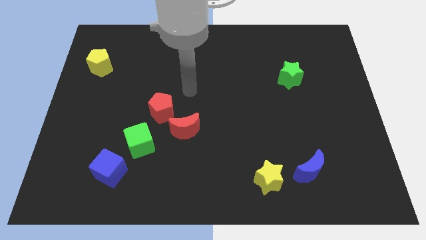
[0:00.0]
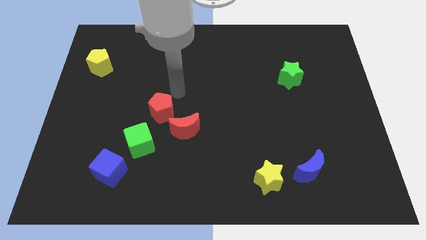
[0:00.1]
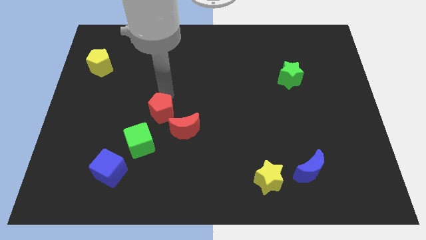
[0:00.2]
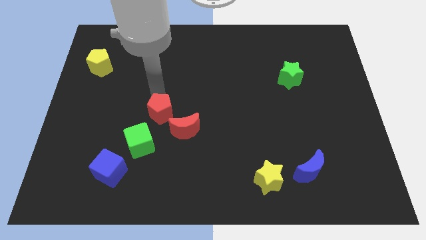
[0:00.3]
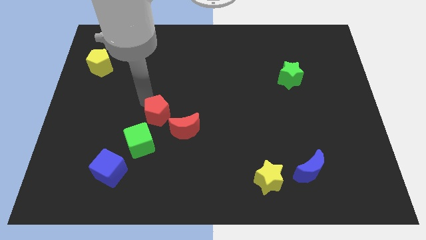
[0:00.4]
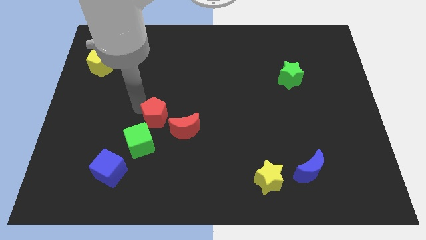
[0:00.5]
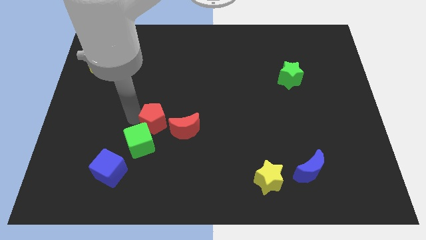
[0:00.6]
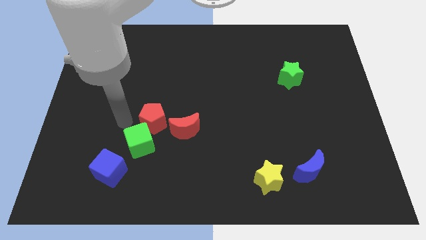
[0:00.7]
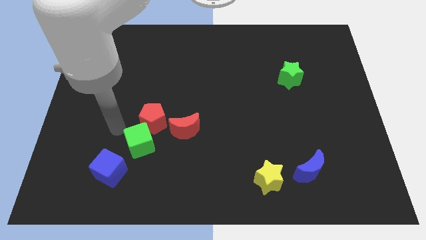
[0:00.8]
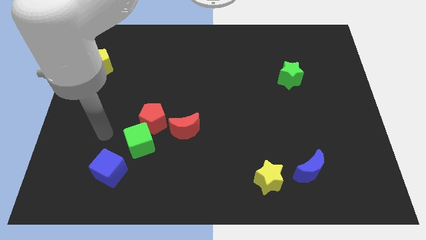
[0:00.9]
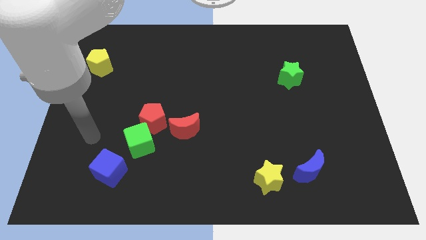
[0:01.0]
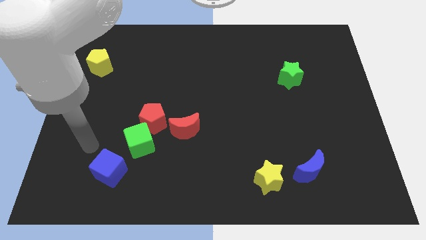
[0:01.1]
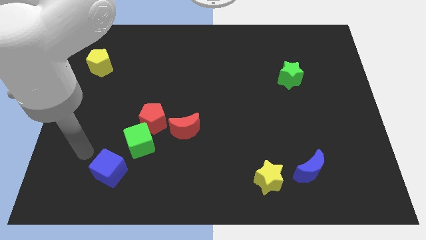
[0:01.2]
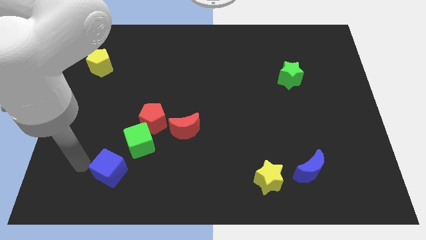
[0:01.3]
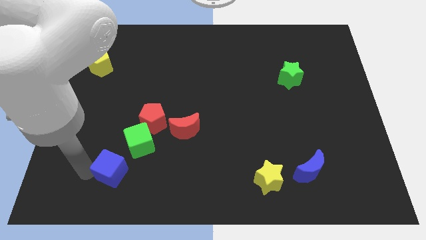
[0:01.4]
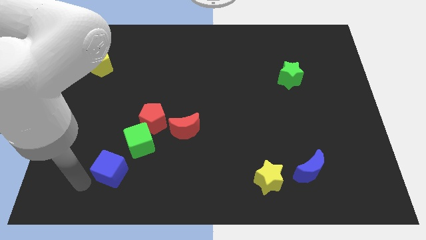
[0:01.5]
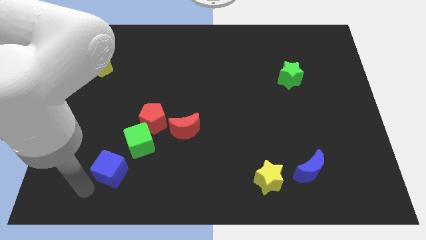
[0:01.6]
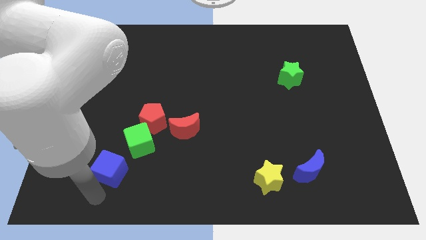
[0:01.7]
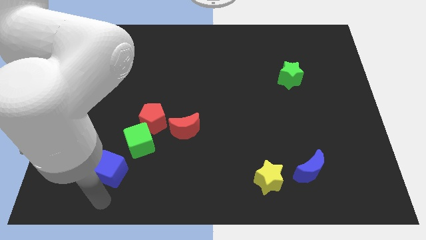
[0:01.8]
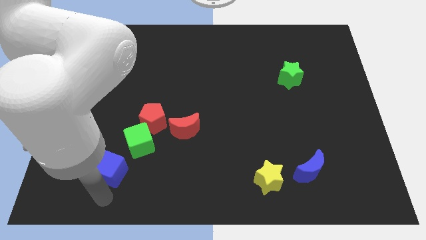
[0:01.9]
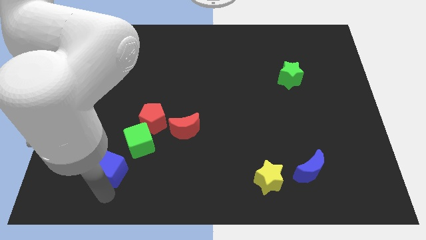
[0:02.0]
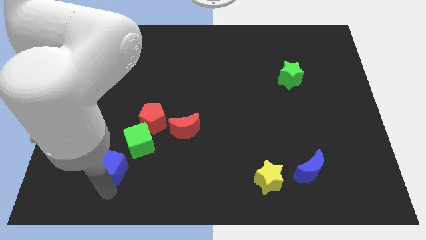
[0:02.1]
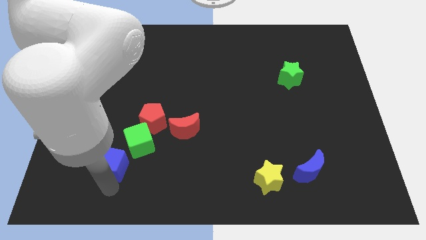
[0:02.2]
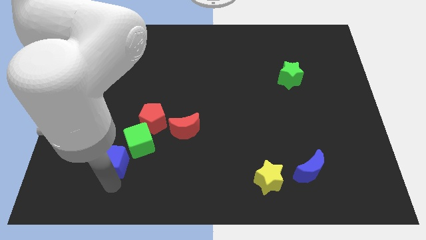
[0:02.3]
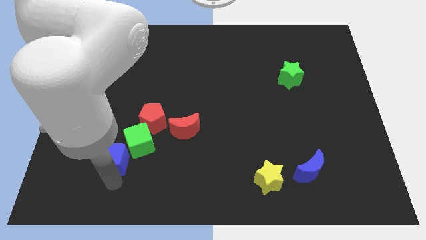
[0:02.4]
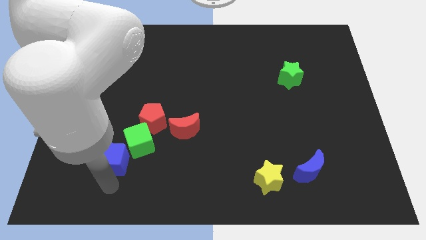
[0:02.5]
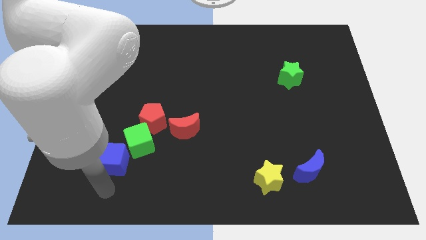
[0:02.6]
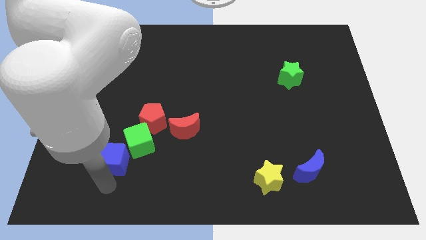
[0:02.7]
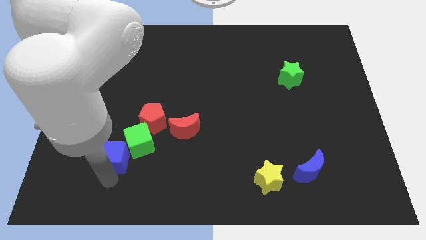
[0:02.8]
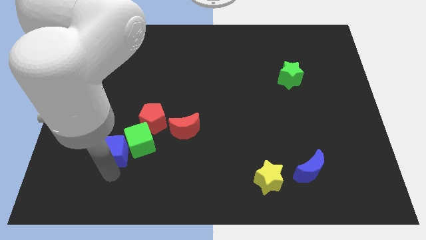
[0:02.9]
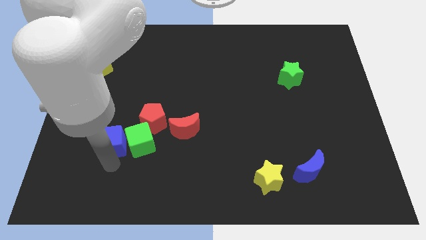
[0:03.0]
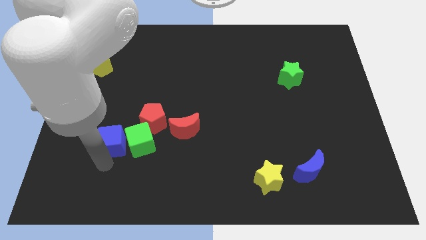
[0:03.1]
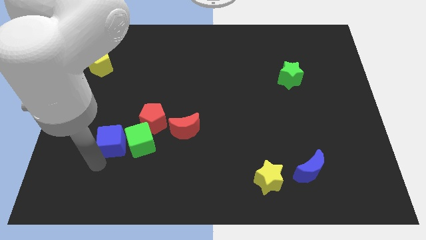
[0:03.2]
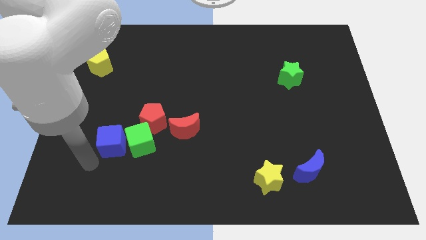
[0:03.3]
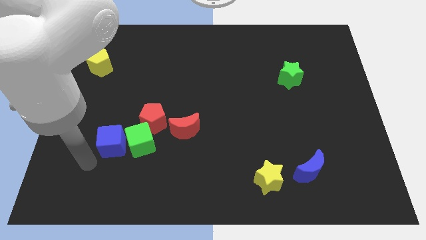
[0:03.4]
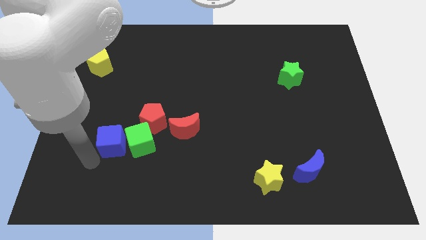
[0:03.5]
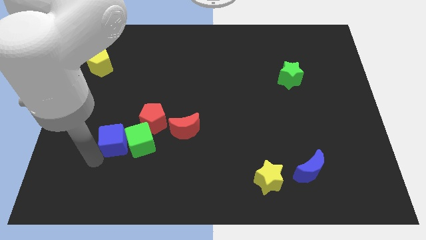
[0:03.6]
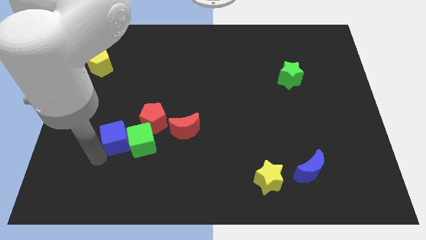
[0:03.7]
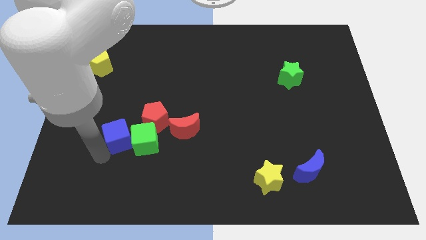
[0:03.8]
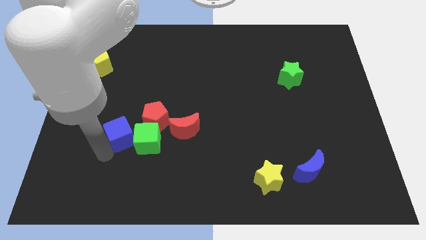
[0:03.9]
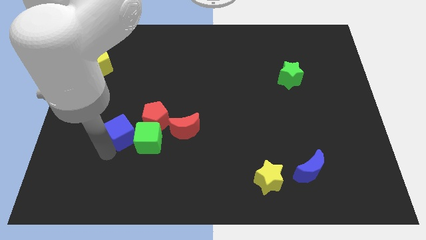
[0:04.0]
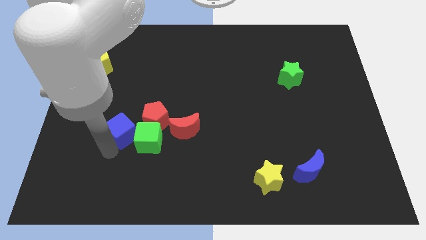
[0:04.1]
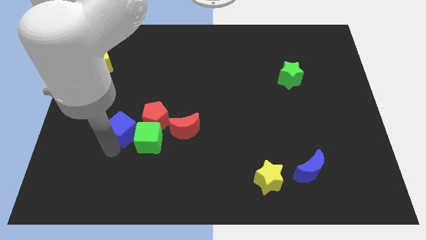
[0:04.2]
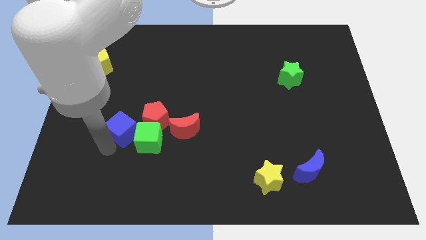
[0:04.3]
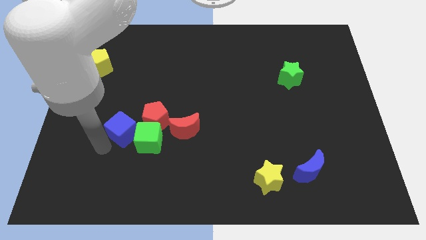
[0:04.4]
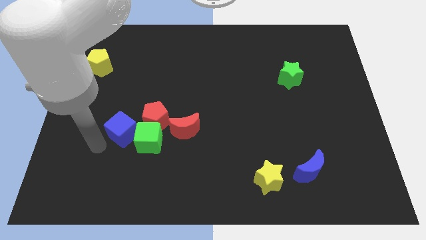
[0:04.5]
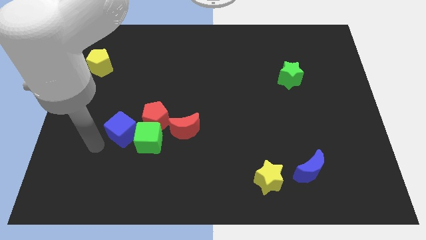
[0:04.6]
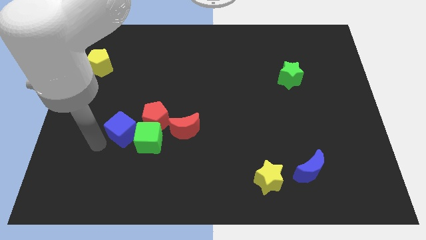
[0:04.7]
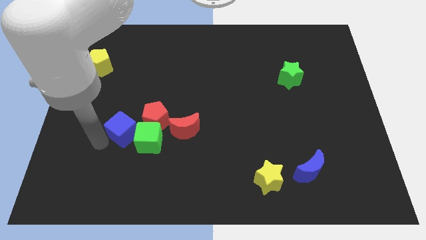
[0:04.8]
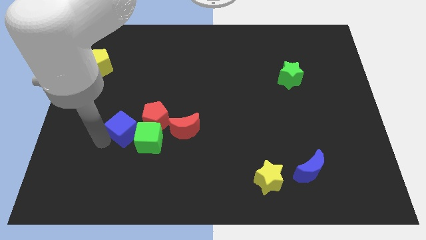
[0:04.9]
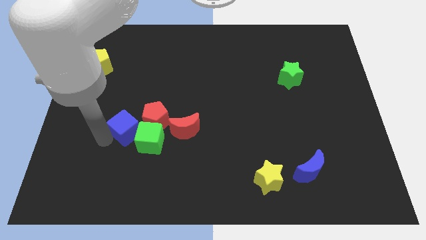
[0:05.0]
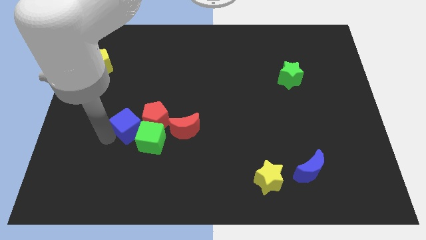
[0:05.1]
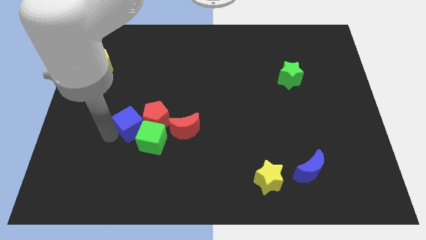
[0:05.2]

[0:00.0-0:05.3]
slide the blue cube towards the red pentagon

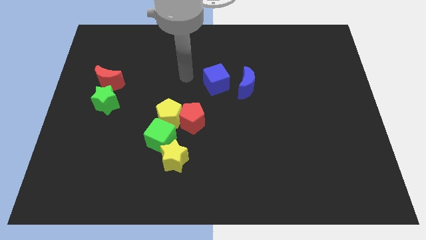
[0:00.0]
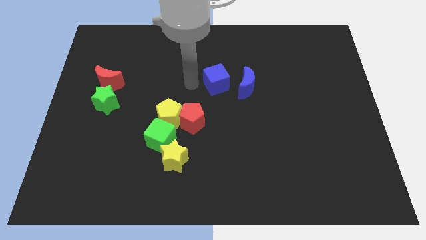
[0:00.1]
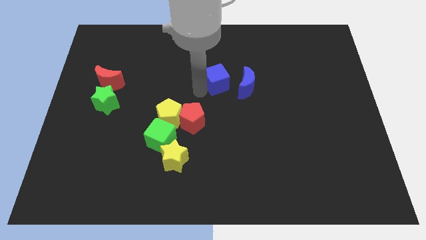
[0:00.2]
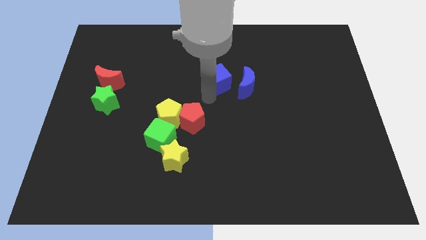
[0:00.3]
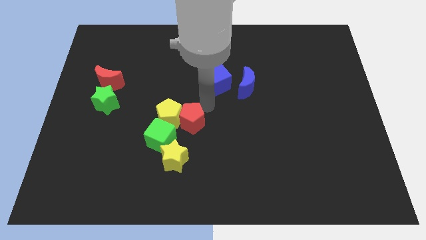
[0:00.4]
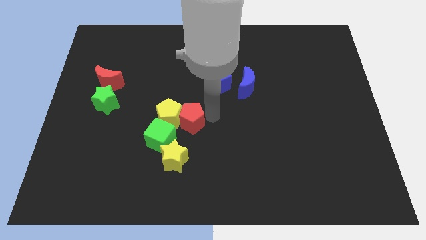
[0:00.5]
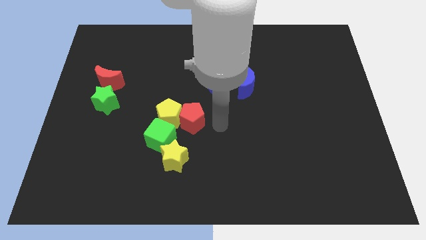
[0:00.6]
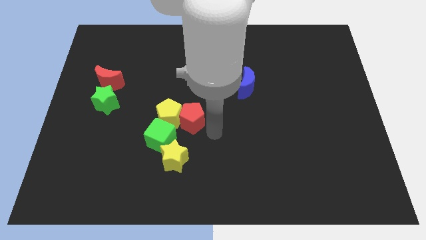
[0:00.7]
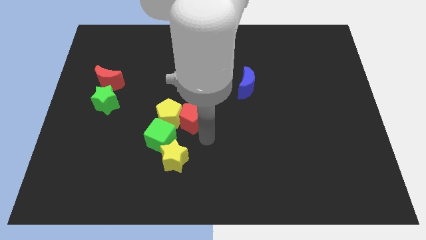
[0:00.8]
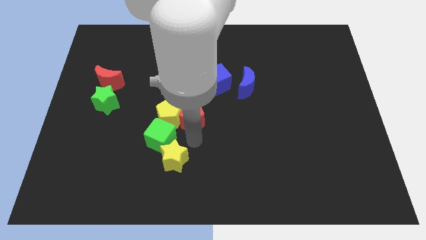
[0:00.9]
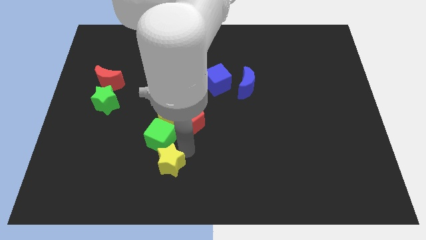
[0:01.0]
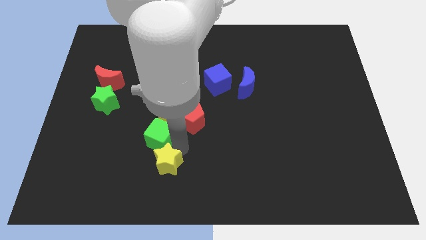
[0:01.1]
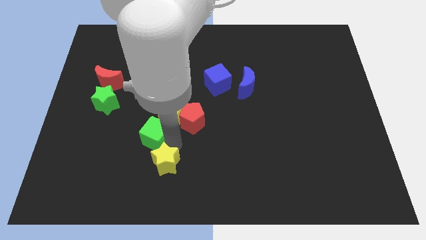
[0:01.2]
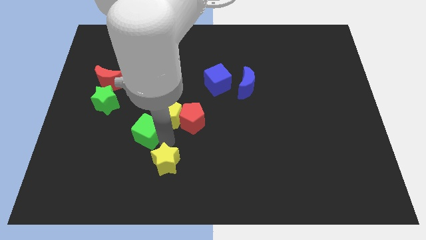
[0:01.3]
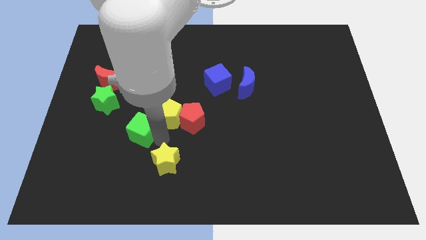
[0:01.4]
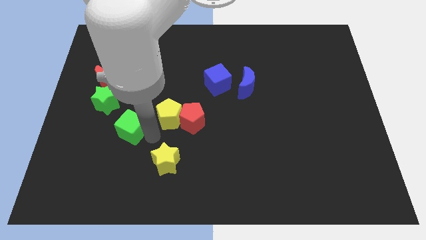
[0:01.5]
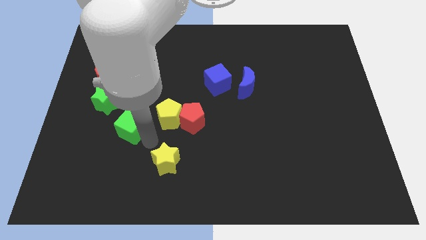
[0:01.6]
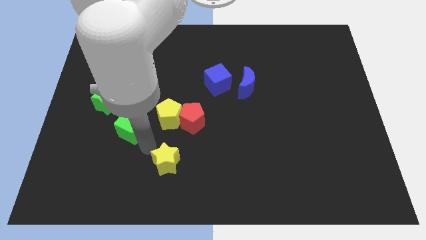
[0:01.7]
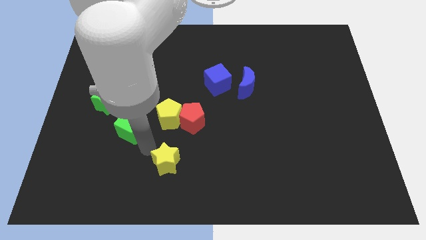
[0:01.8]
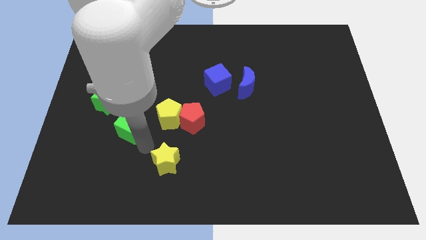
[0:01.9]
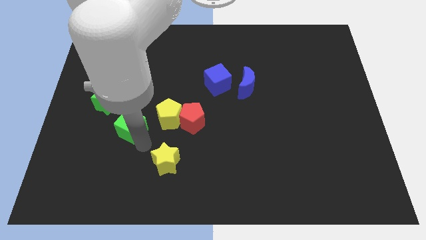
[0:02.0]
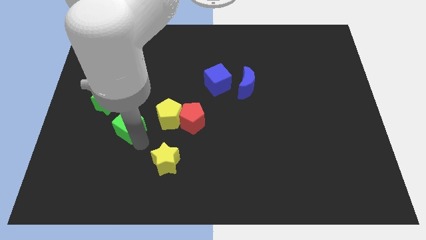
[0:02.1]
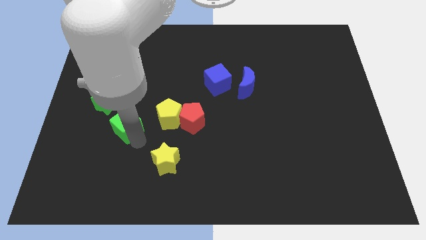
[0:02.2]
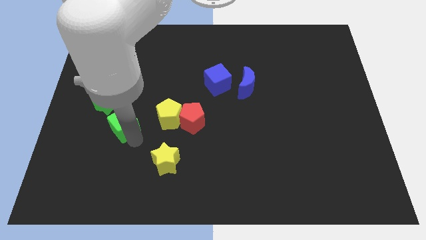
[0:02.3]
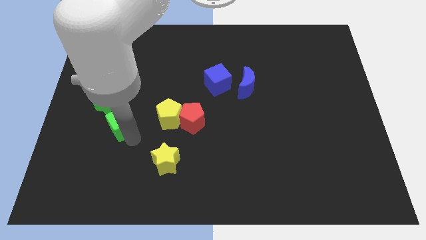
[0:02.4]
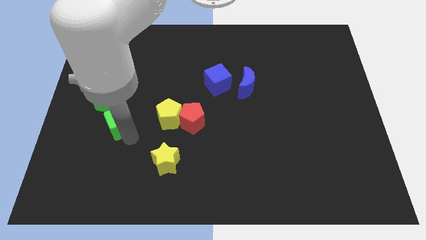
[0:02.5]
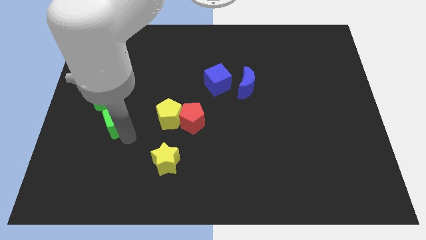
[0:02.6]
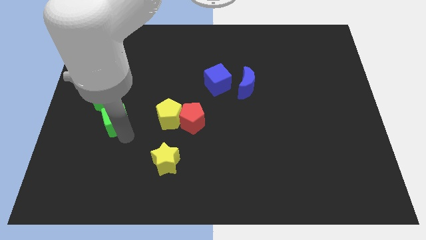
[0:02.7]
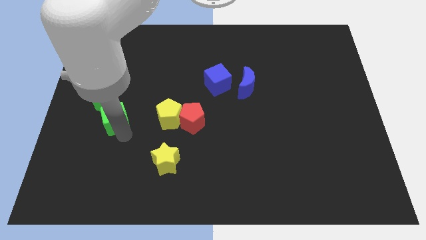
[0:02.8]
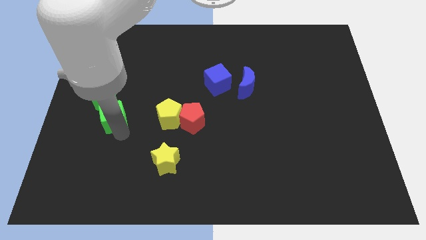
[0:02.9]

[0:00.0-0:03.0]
put the green cube next to the green star
